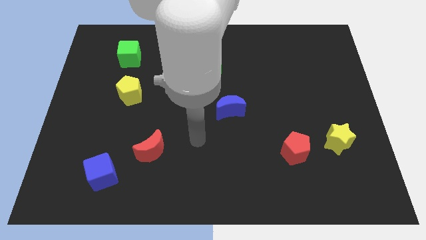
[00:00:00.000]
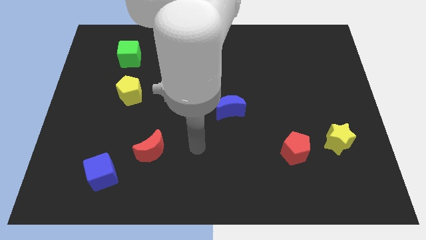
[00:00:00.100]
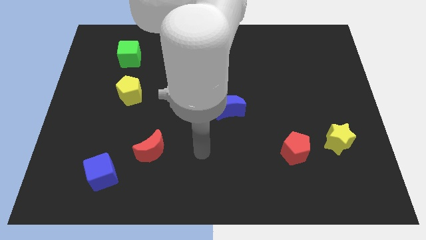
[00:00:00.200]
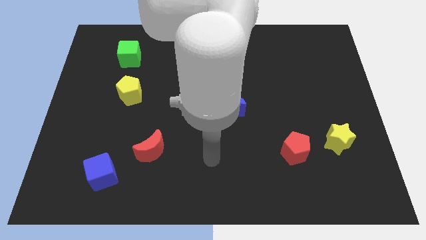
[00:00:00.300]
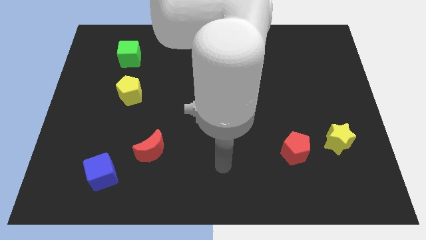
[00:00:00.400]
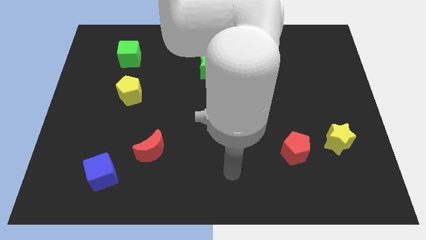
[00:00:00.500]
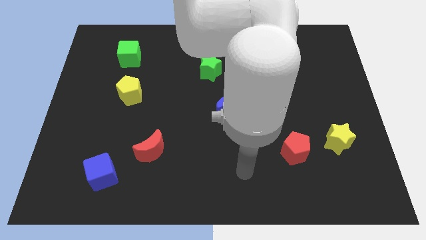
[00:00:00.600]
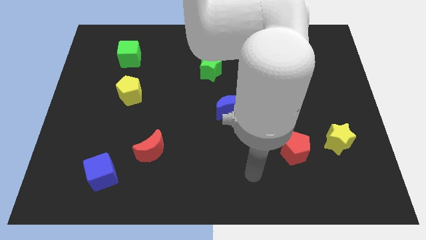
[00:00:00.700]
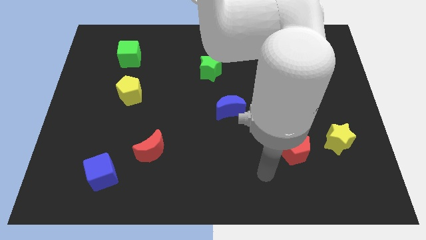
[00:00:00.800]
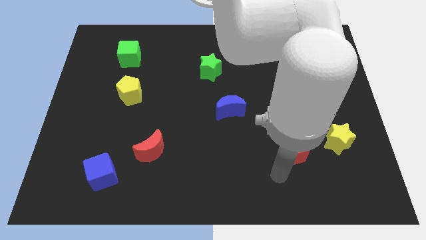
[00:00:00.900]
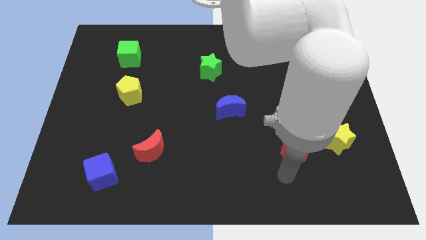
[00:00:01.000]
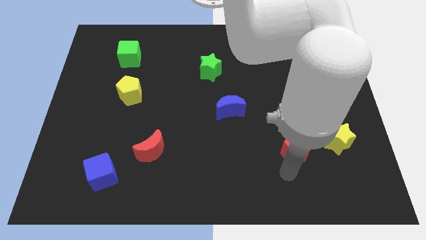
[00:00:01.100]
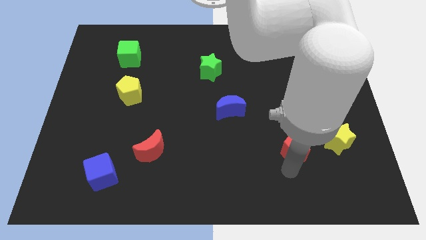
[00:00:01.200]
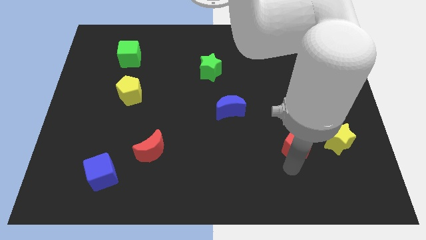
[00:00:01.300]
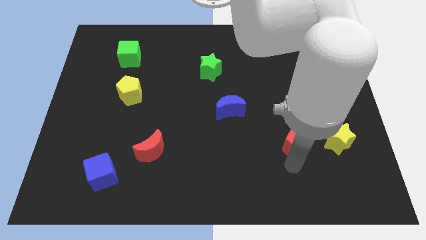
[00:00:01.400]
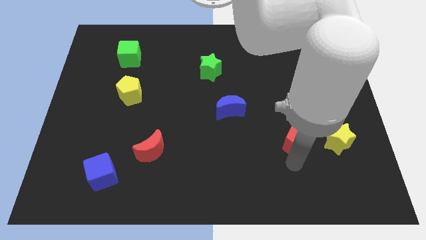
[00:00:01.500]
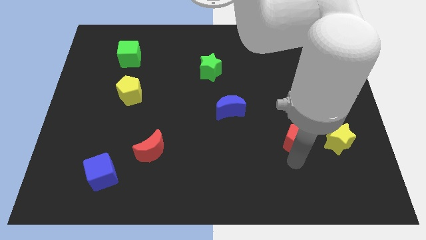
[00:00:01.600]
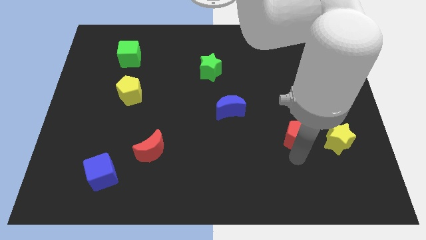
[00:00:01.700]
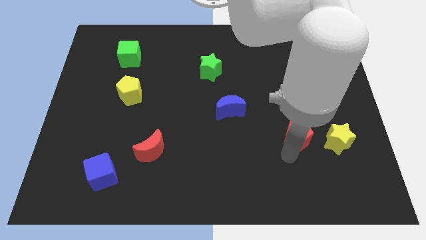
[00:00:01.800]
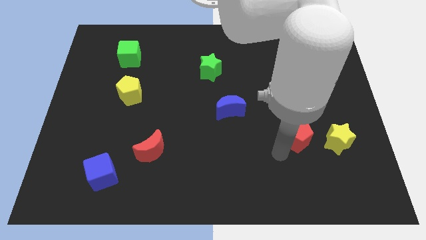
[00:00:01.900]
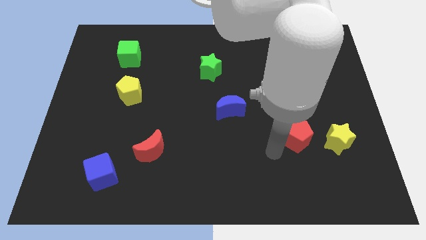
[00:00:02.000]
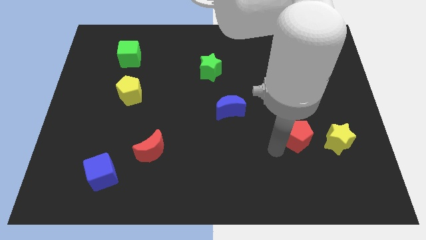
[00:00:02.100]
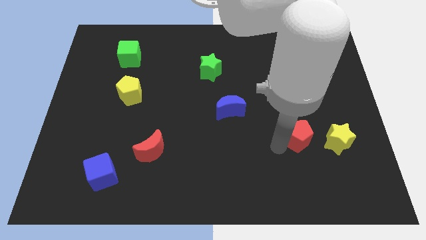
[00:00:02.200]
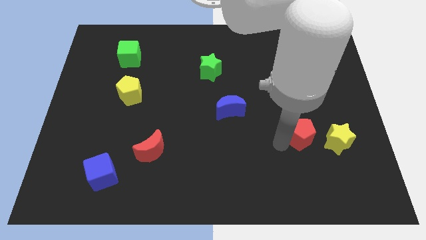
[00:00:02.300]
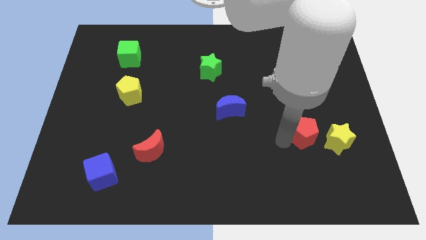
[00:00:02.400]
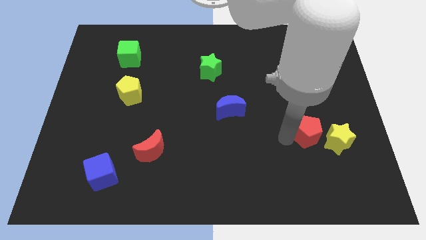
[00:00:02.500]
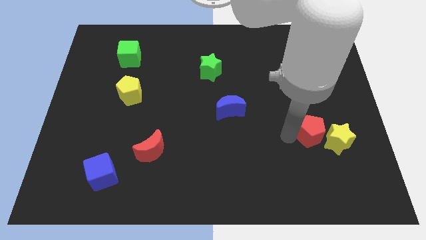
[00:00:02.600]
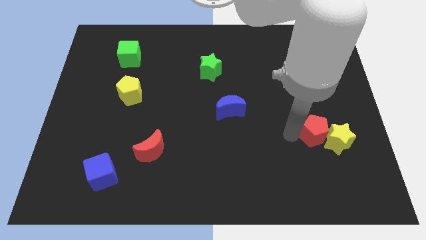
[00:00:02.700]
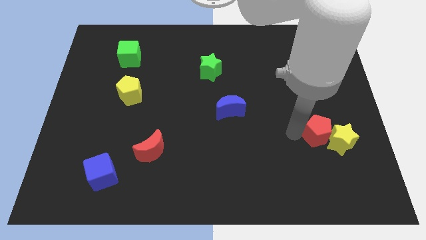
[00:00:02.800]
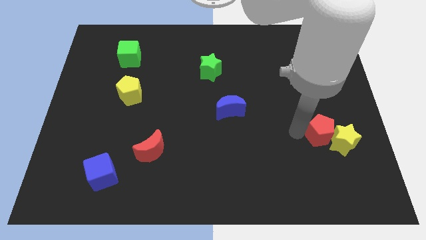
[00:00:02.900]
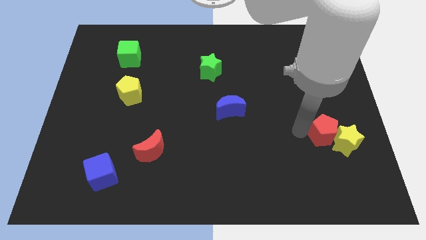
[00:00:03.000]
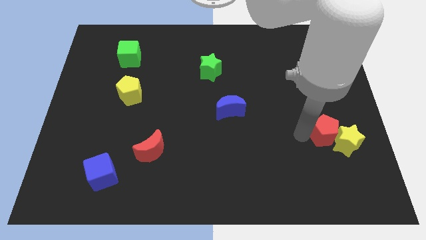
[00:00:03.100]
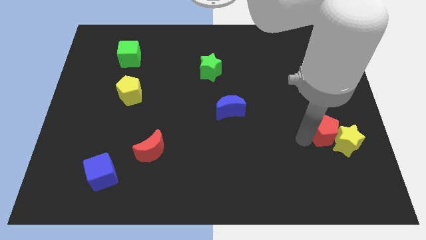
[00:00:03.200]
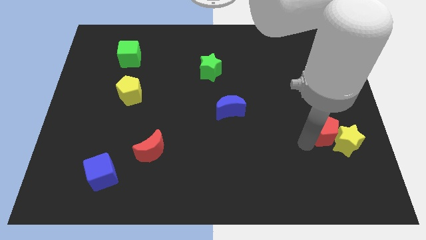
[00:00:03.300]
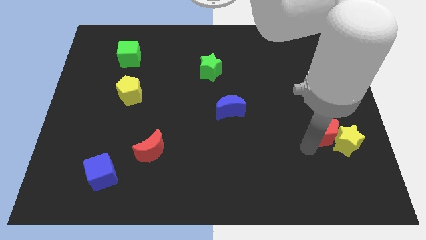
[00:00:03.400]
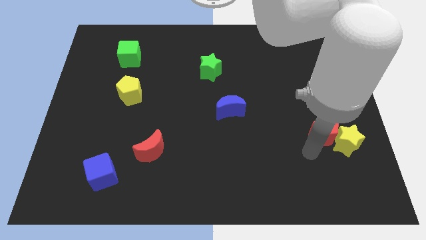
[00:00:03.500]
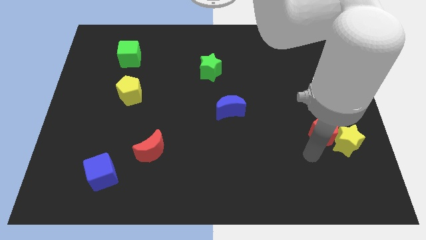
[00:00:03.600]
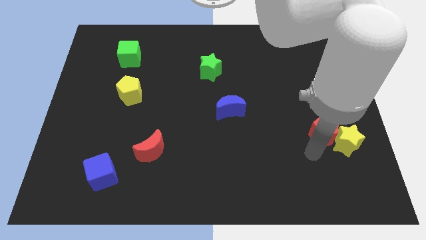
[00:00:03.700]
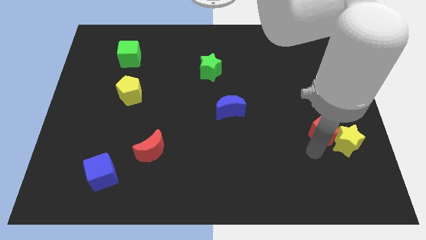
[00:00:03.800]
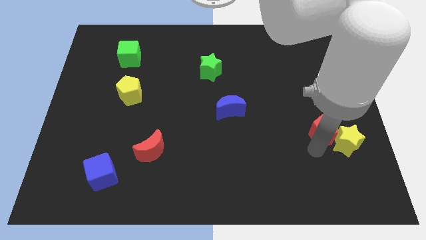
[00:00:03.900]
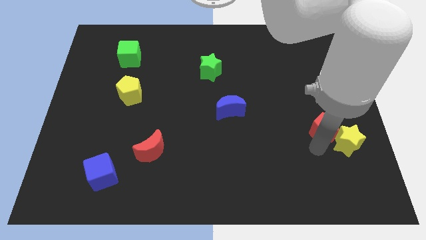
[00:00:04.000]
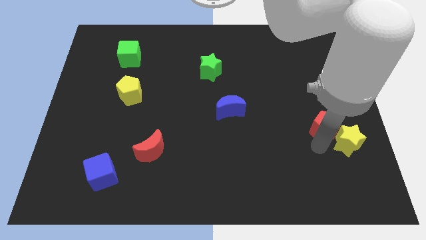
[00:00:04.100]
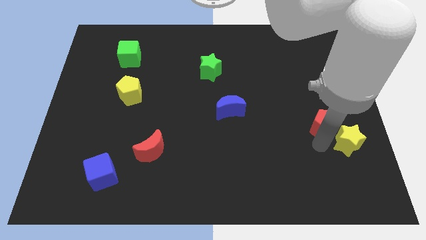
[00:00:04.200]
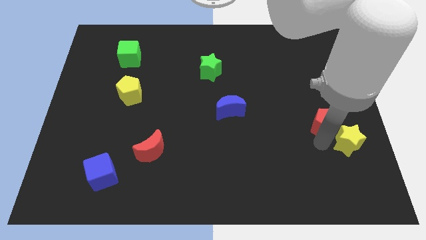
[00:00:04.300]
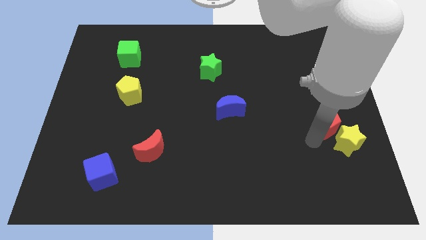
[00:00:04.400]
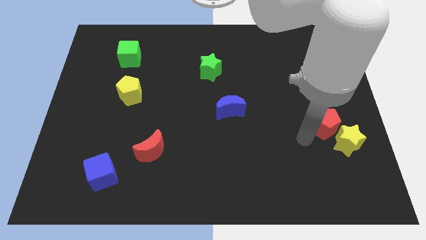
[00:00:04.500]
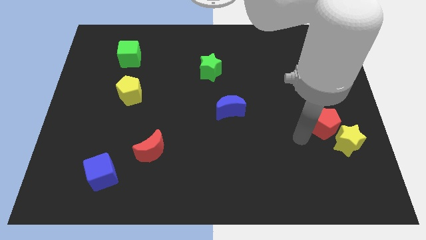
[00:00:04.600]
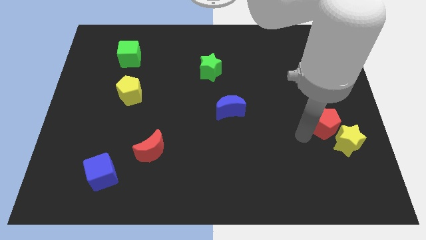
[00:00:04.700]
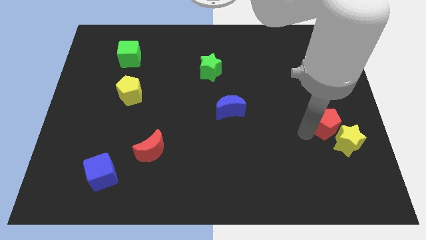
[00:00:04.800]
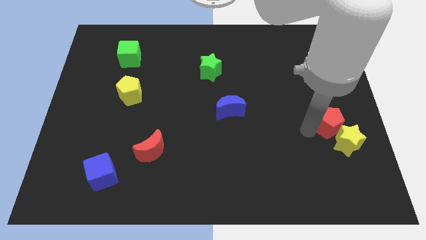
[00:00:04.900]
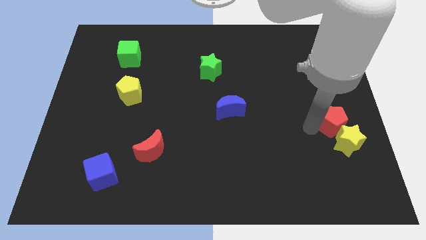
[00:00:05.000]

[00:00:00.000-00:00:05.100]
put the red pentagon to the right side of the board

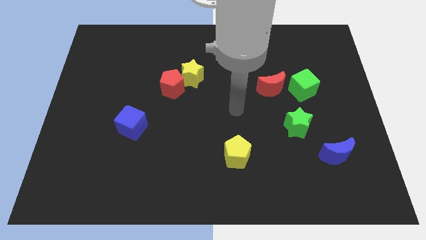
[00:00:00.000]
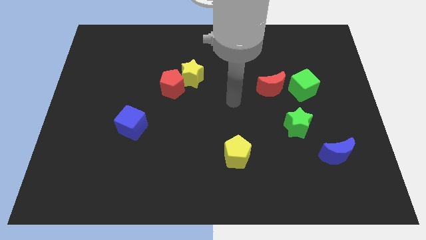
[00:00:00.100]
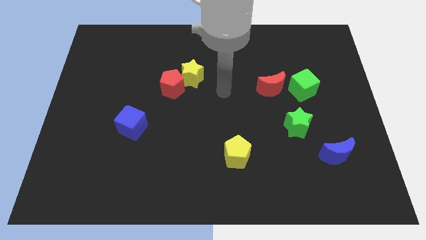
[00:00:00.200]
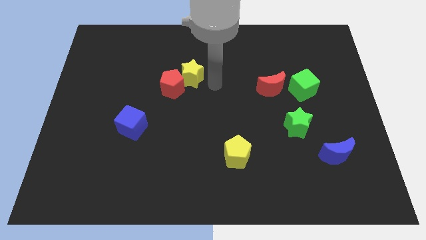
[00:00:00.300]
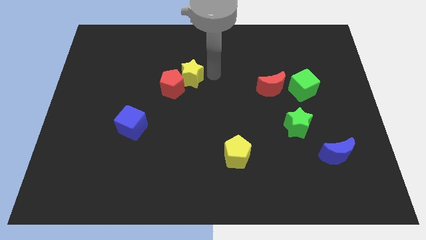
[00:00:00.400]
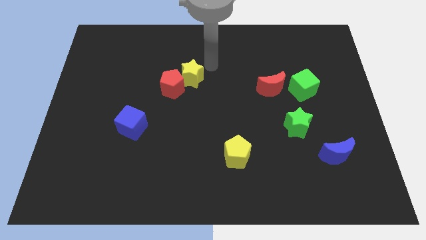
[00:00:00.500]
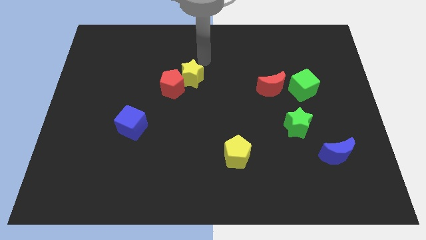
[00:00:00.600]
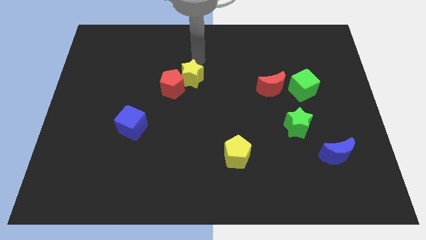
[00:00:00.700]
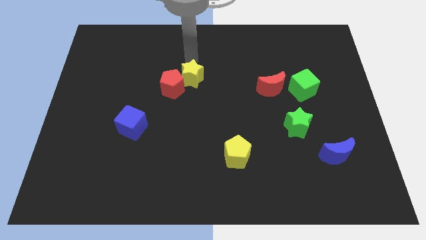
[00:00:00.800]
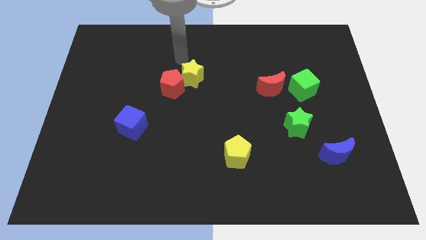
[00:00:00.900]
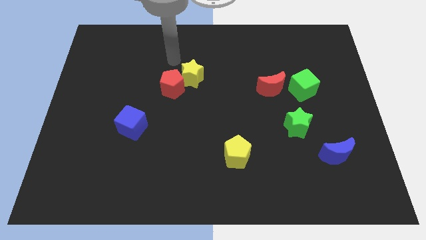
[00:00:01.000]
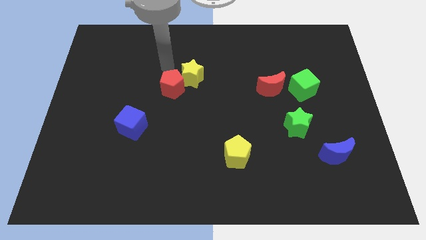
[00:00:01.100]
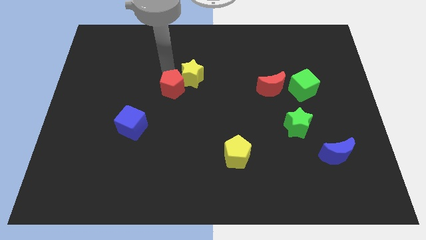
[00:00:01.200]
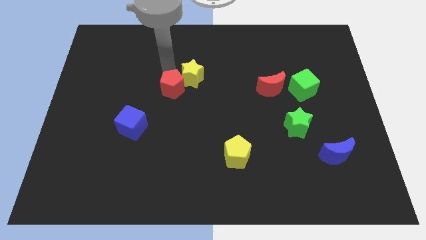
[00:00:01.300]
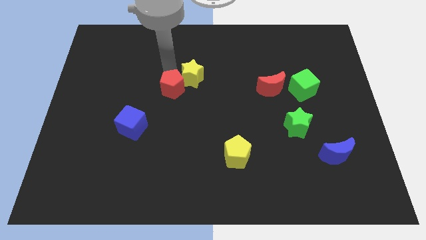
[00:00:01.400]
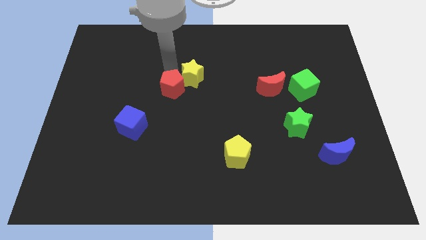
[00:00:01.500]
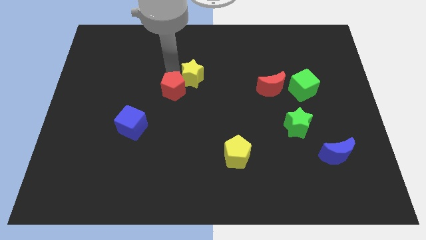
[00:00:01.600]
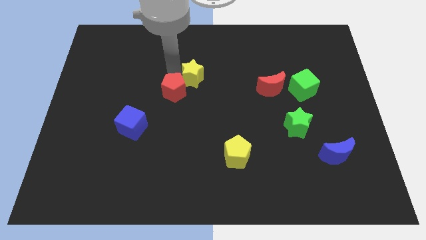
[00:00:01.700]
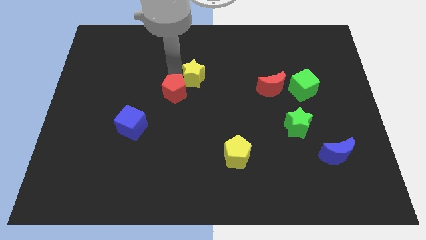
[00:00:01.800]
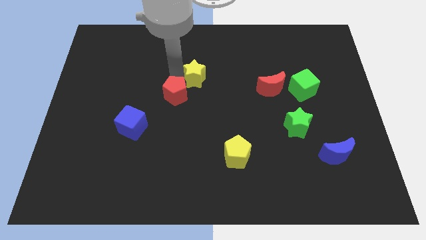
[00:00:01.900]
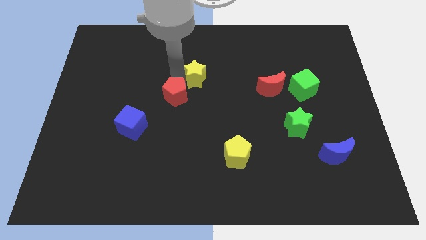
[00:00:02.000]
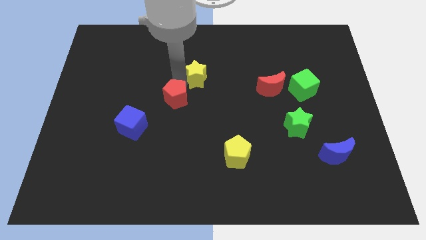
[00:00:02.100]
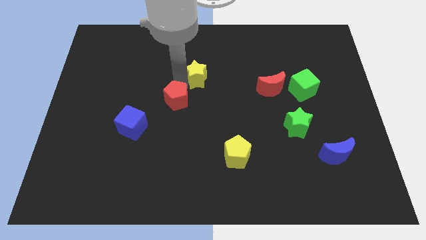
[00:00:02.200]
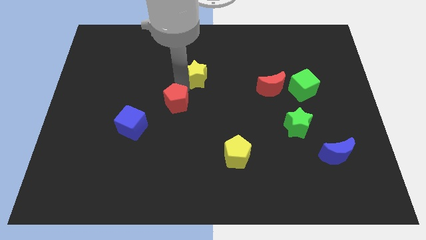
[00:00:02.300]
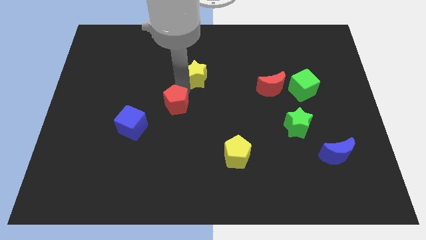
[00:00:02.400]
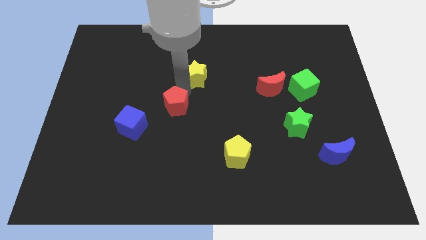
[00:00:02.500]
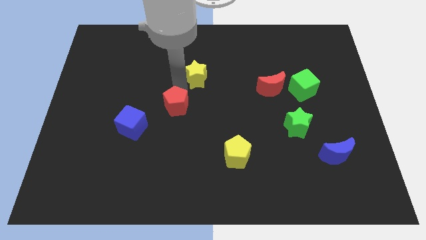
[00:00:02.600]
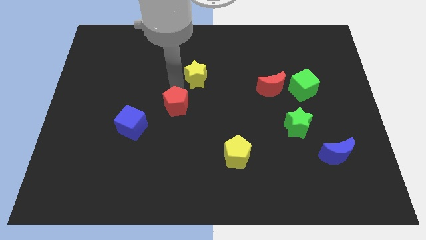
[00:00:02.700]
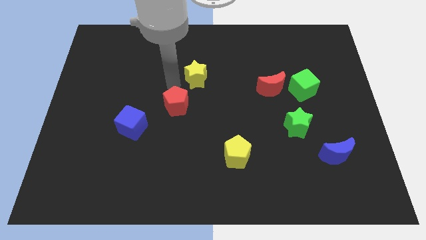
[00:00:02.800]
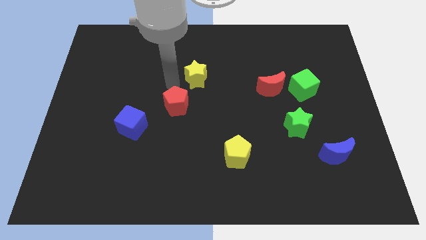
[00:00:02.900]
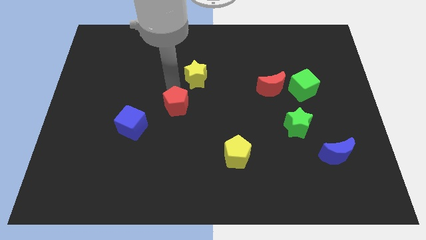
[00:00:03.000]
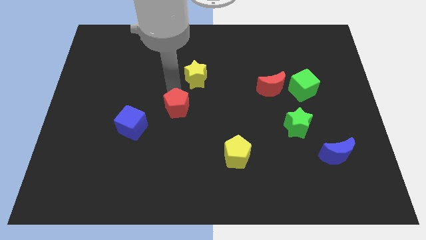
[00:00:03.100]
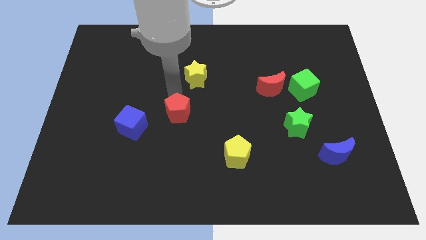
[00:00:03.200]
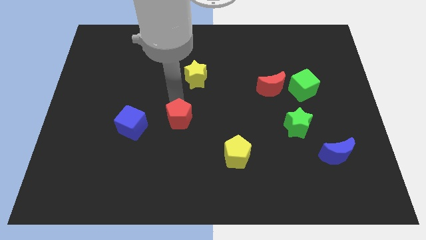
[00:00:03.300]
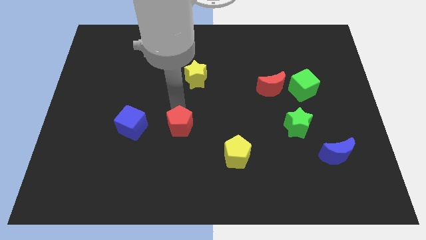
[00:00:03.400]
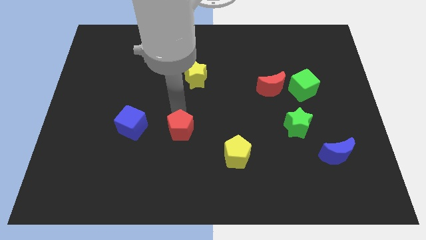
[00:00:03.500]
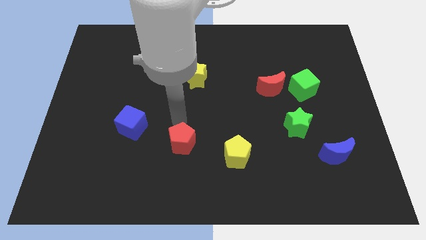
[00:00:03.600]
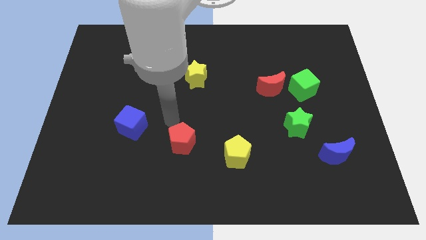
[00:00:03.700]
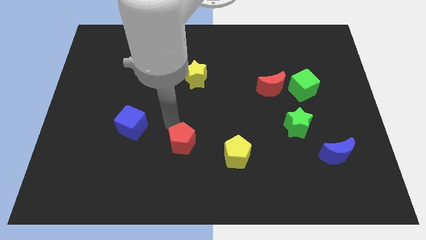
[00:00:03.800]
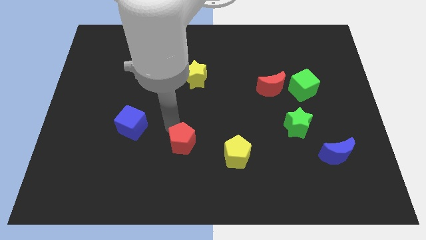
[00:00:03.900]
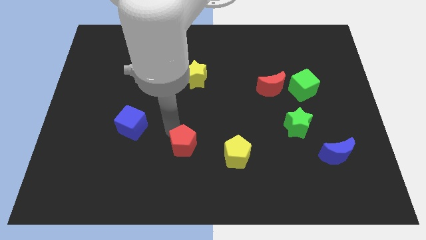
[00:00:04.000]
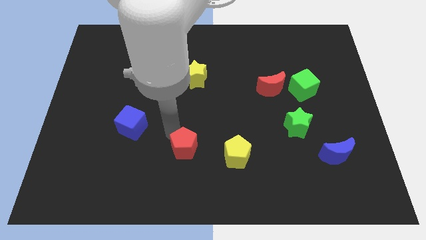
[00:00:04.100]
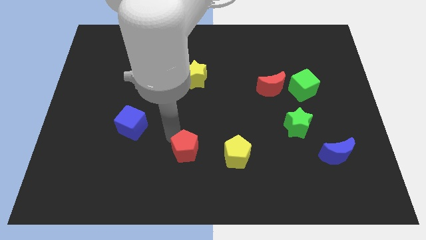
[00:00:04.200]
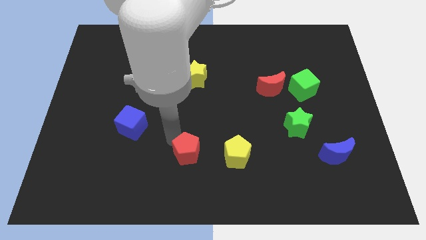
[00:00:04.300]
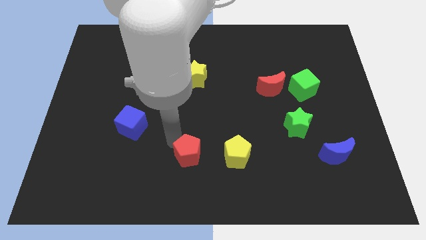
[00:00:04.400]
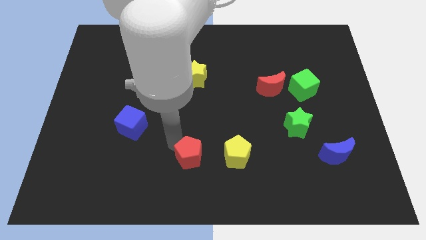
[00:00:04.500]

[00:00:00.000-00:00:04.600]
slide the red pentagon to the bottom side
